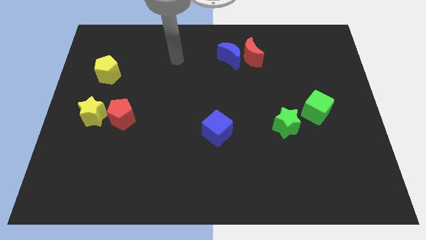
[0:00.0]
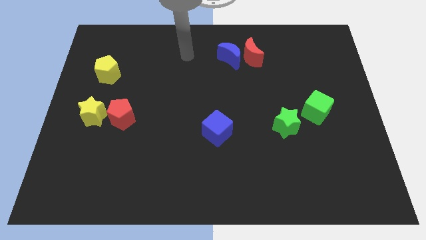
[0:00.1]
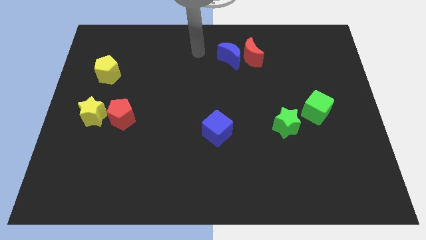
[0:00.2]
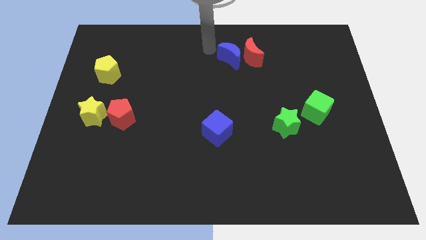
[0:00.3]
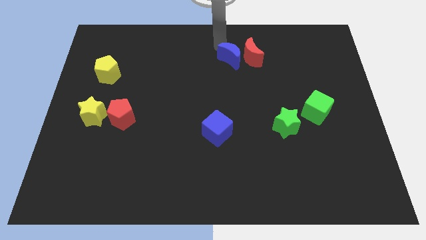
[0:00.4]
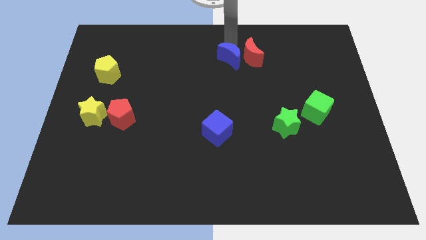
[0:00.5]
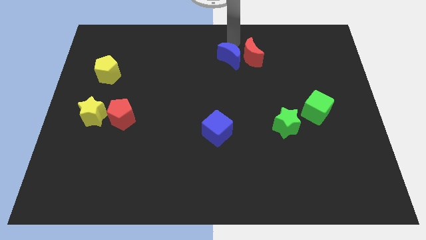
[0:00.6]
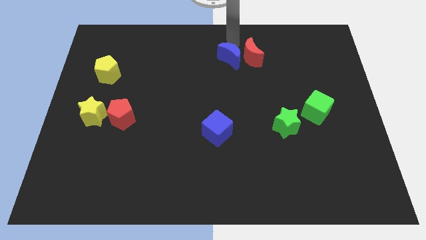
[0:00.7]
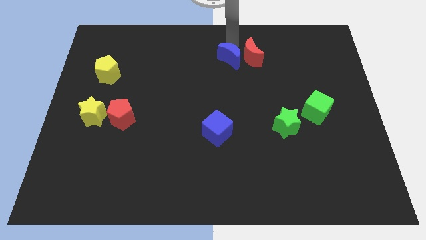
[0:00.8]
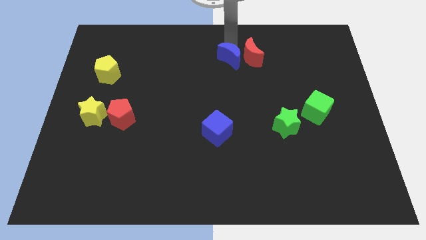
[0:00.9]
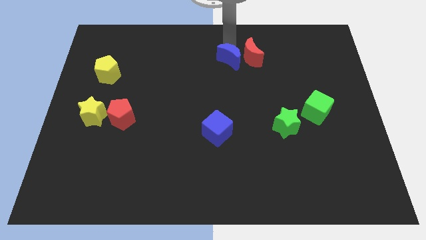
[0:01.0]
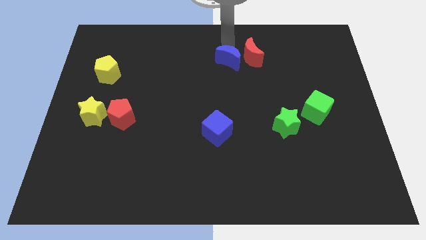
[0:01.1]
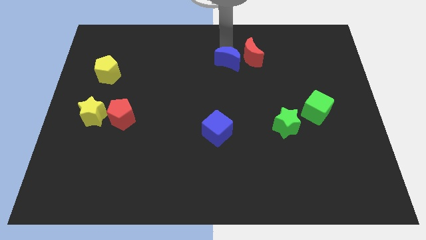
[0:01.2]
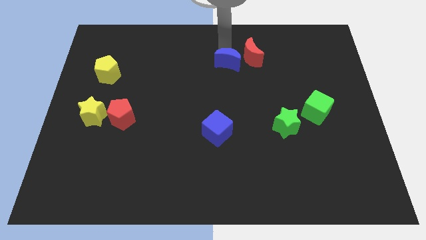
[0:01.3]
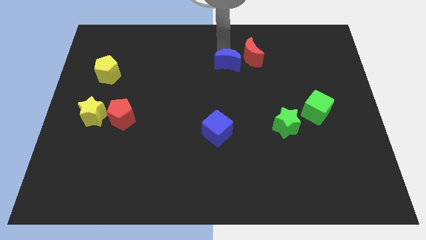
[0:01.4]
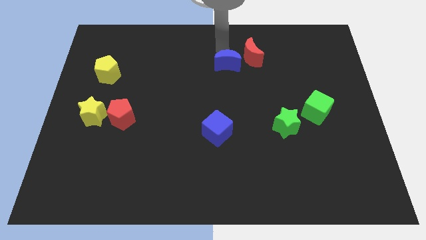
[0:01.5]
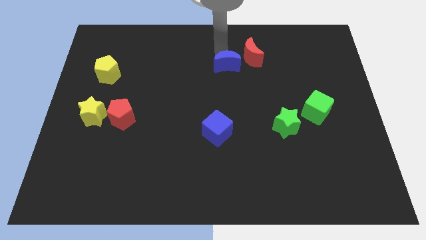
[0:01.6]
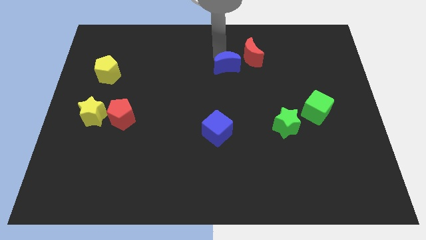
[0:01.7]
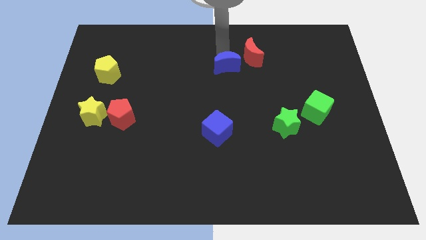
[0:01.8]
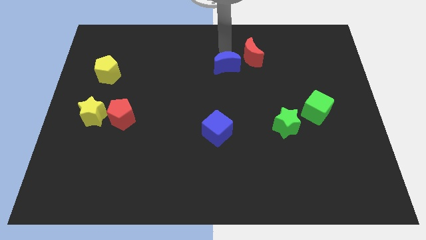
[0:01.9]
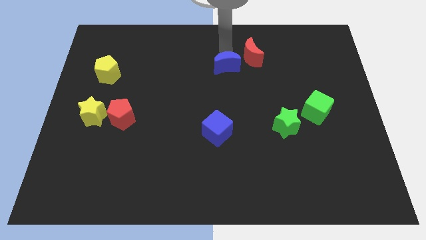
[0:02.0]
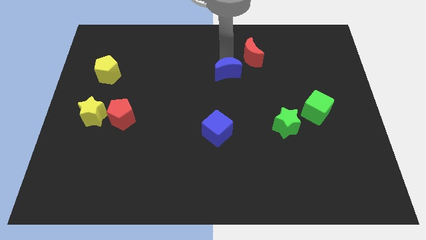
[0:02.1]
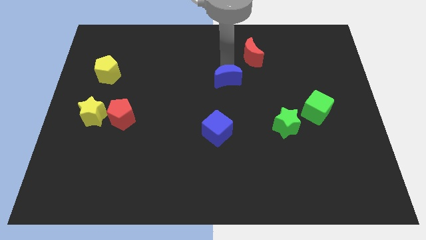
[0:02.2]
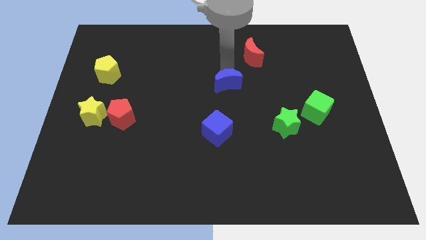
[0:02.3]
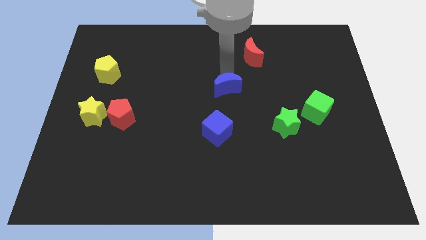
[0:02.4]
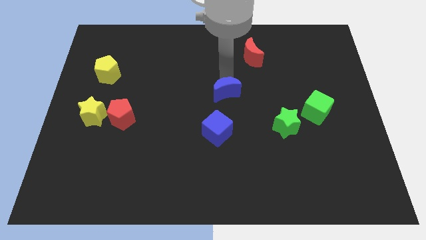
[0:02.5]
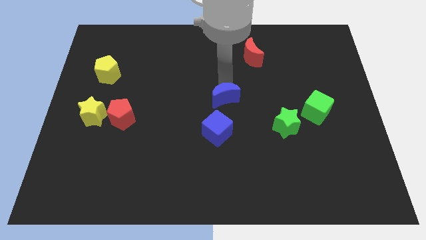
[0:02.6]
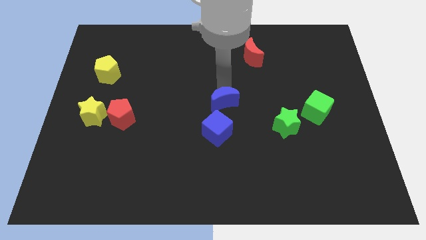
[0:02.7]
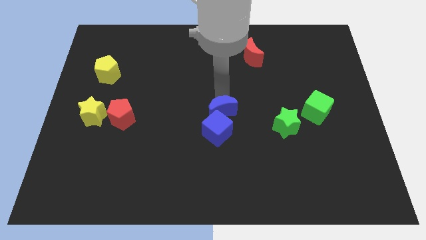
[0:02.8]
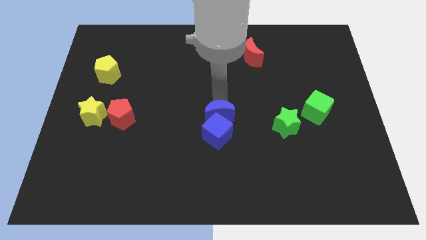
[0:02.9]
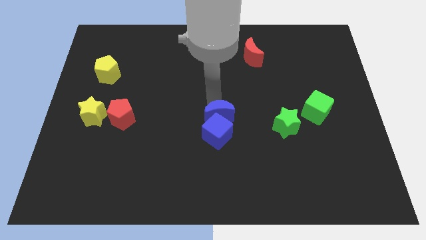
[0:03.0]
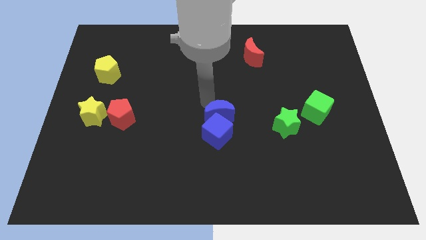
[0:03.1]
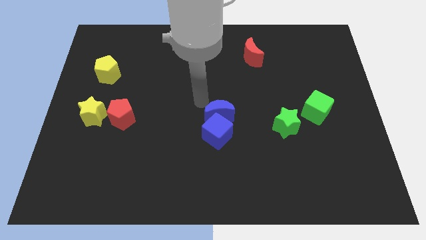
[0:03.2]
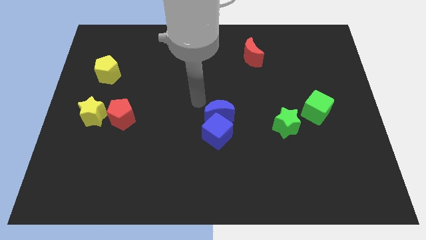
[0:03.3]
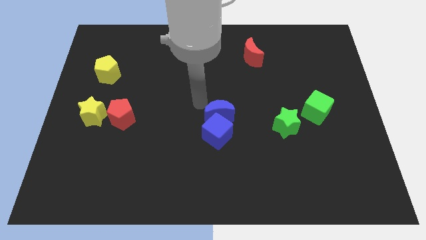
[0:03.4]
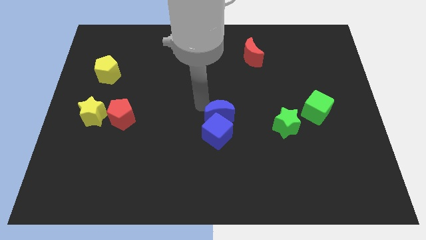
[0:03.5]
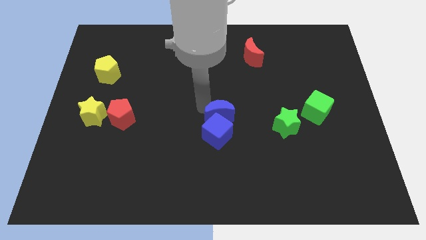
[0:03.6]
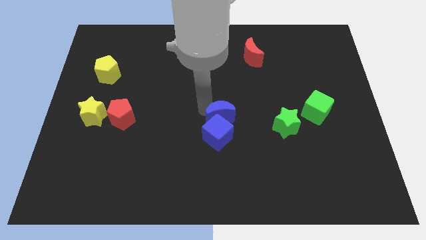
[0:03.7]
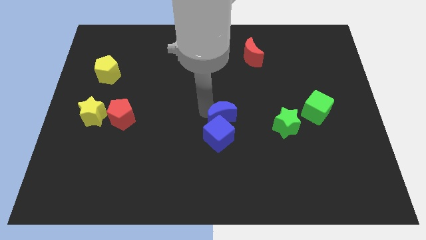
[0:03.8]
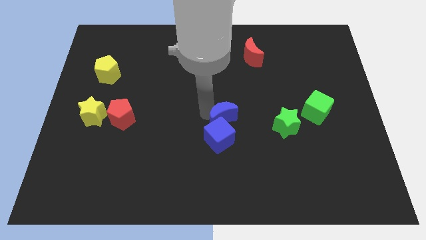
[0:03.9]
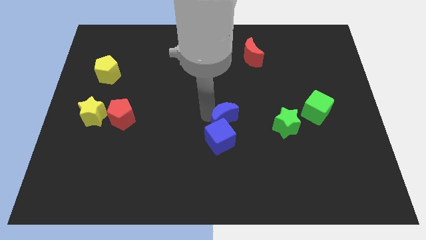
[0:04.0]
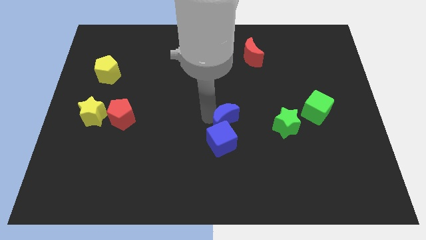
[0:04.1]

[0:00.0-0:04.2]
push the blue moon down

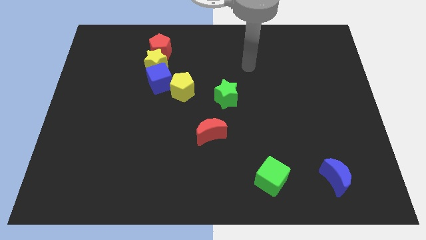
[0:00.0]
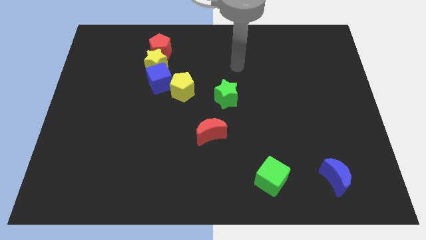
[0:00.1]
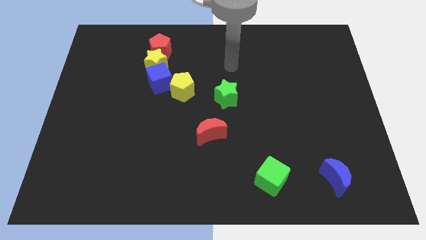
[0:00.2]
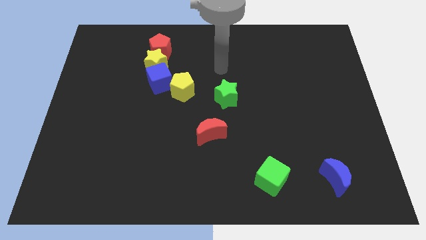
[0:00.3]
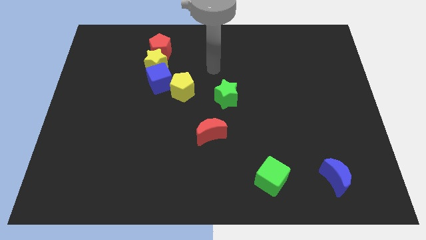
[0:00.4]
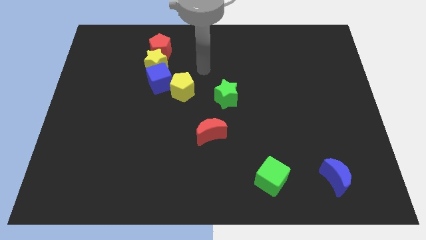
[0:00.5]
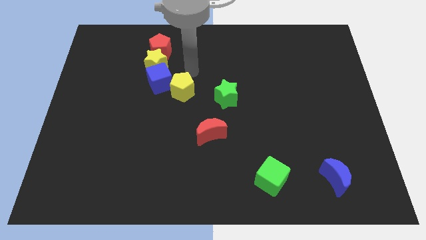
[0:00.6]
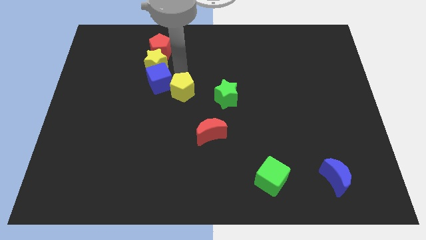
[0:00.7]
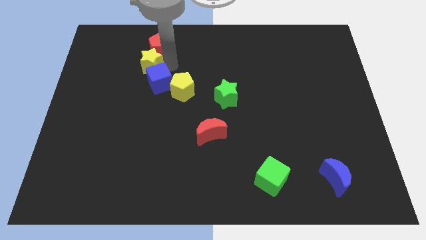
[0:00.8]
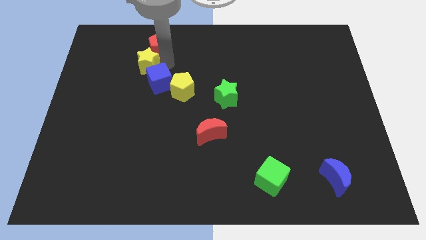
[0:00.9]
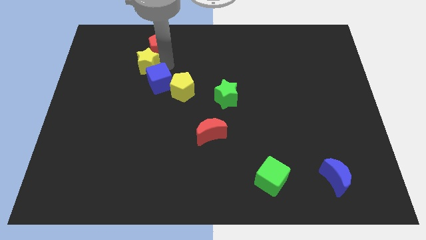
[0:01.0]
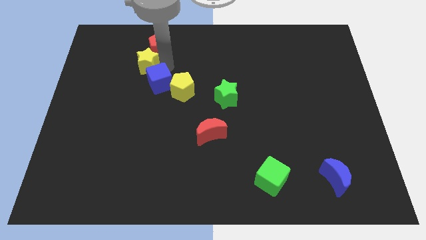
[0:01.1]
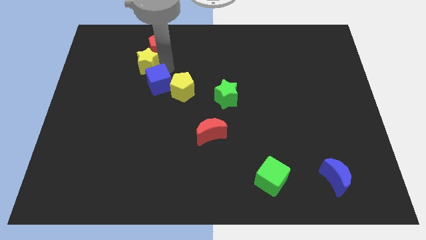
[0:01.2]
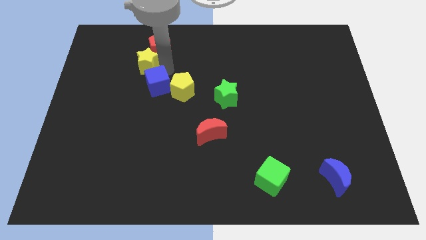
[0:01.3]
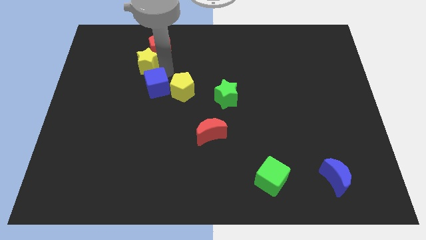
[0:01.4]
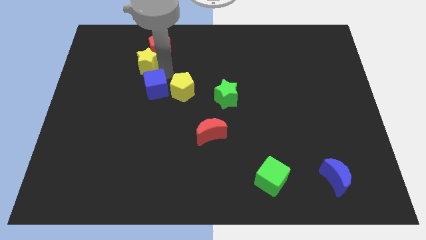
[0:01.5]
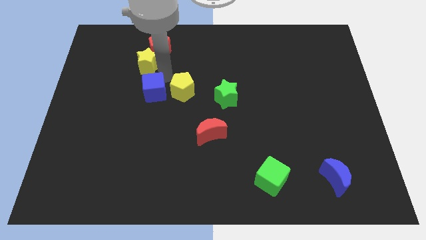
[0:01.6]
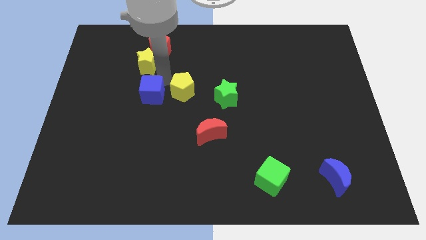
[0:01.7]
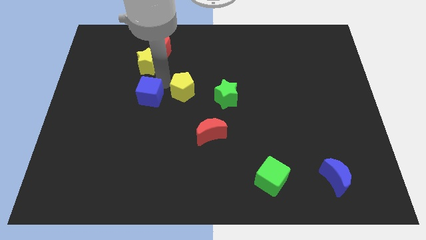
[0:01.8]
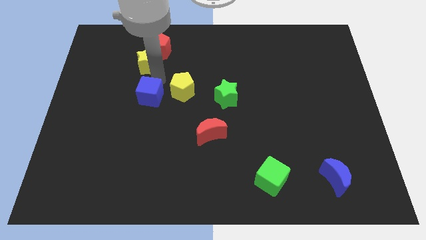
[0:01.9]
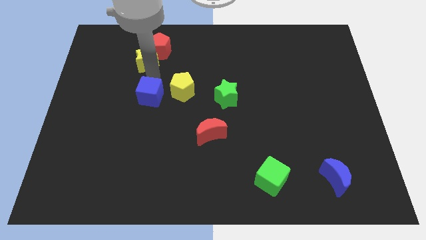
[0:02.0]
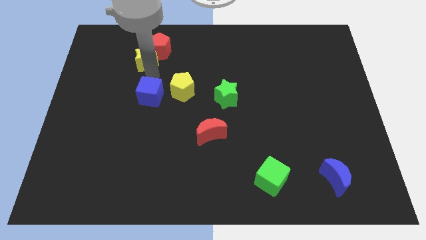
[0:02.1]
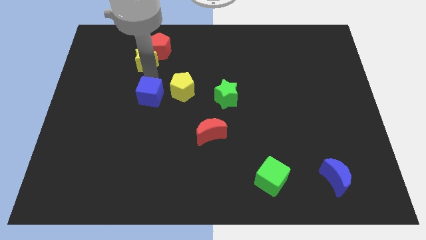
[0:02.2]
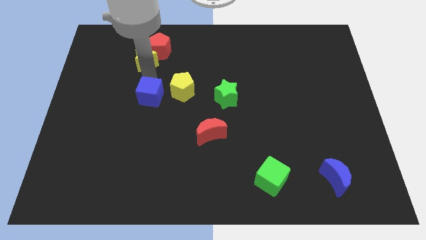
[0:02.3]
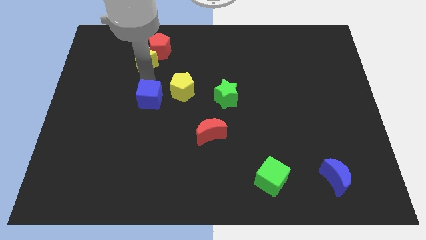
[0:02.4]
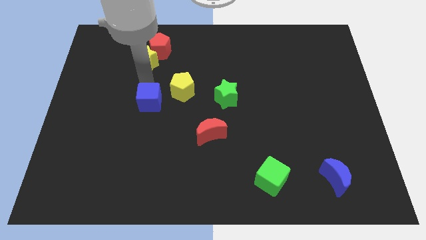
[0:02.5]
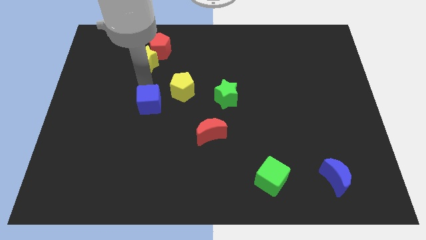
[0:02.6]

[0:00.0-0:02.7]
push the blue cube somewhat down

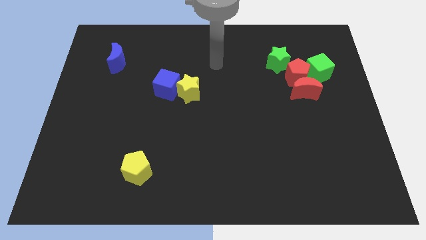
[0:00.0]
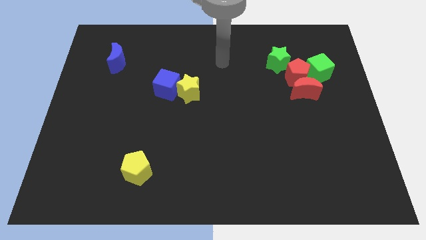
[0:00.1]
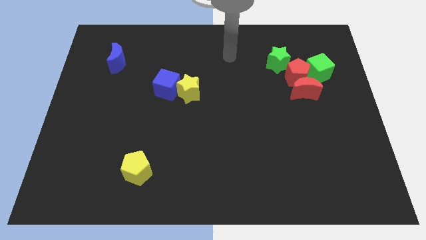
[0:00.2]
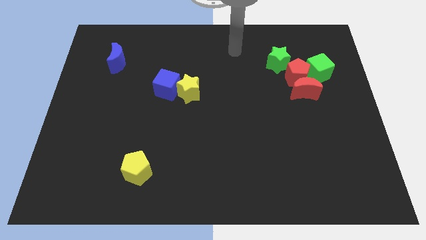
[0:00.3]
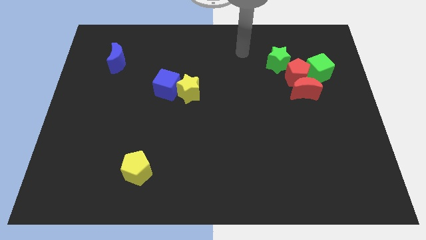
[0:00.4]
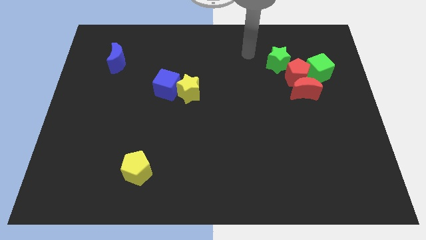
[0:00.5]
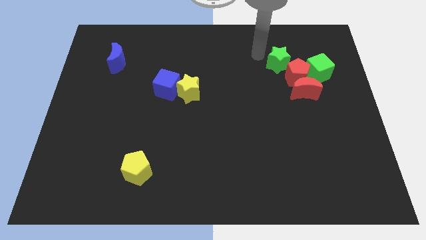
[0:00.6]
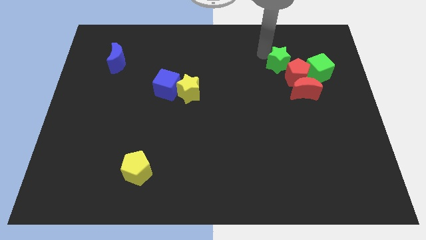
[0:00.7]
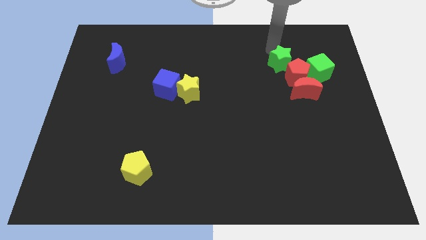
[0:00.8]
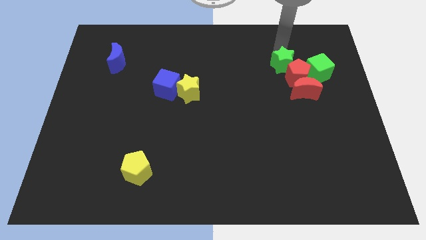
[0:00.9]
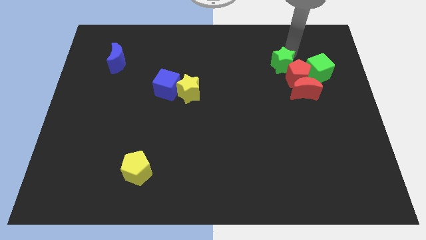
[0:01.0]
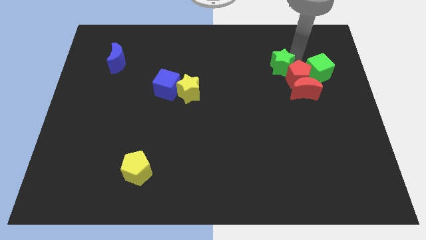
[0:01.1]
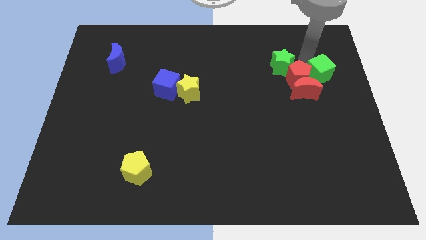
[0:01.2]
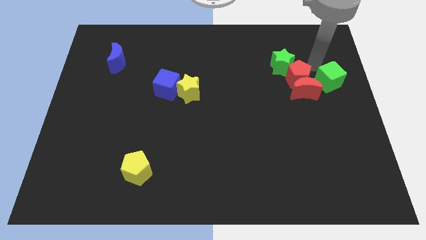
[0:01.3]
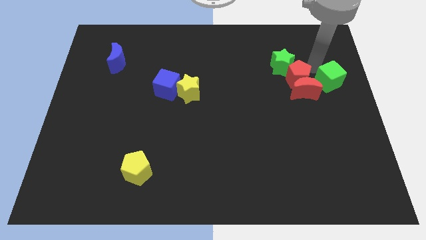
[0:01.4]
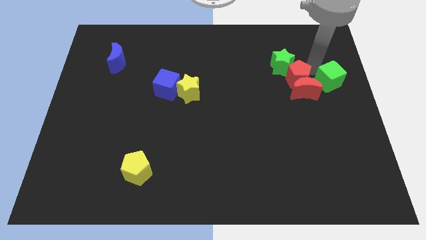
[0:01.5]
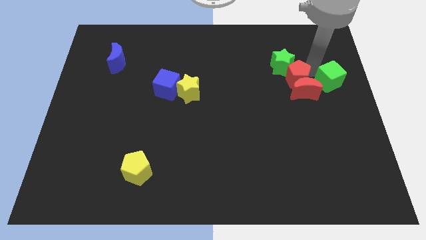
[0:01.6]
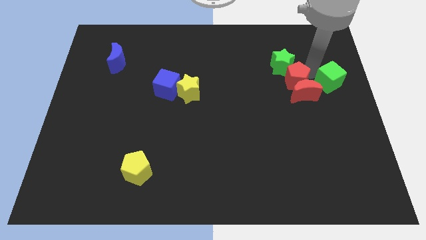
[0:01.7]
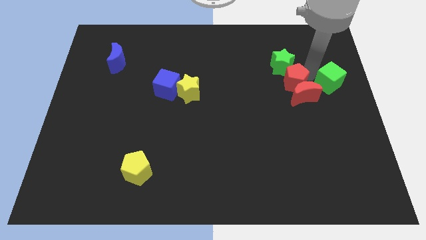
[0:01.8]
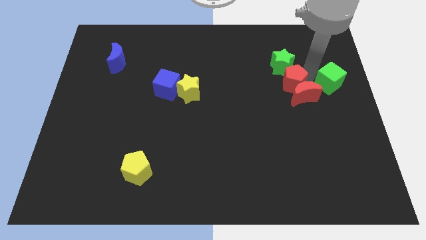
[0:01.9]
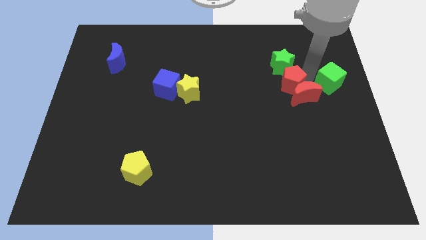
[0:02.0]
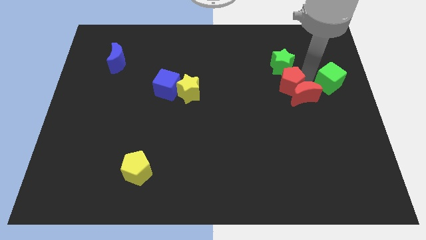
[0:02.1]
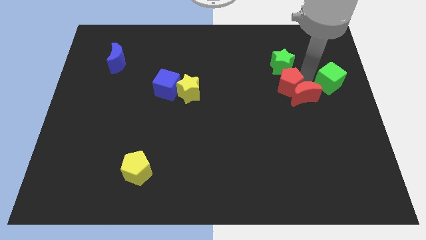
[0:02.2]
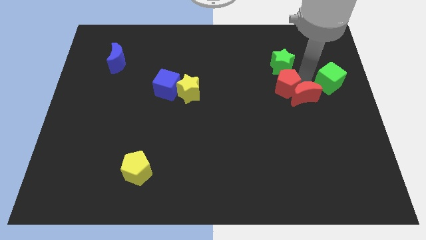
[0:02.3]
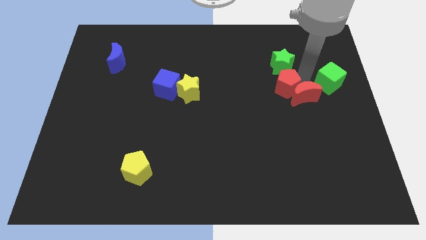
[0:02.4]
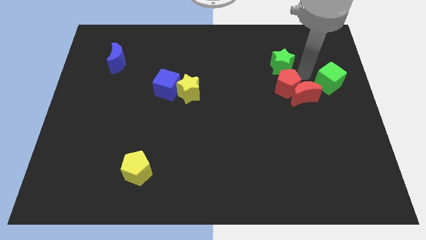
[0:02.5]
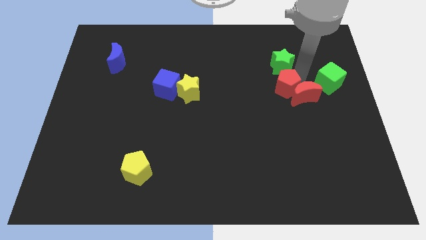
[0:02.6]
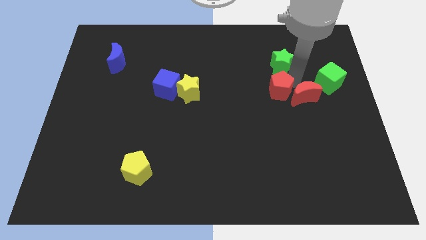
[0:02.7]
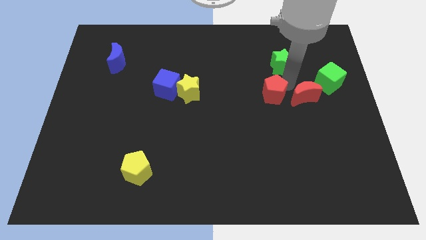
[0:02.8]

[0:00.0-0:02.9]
slide the red pentagon somewhat downwards and to the left
